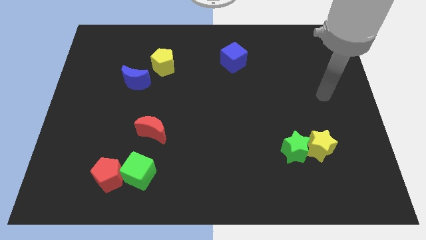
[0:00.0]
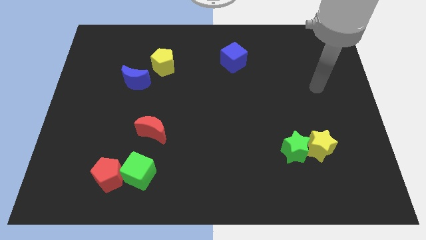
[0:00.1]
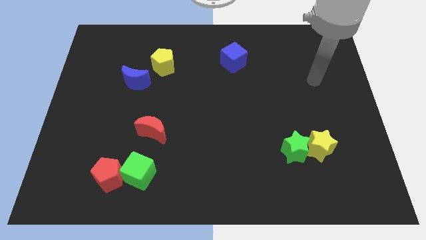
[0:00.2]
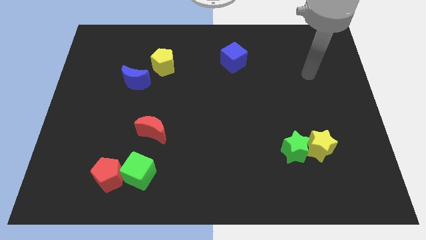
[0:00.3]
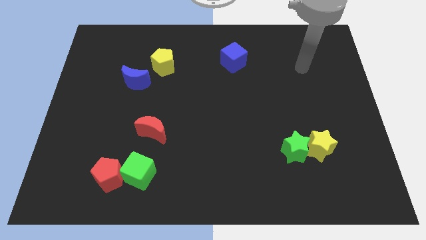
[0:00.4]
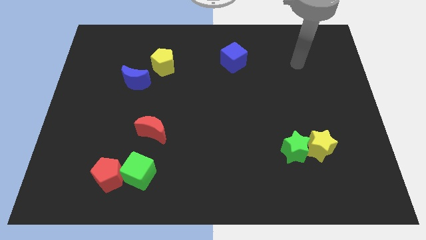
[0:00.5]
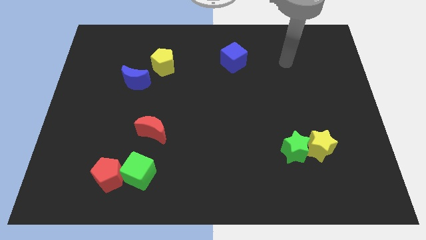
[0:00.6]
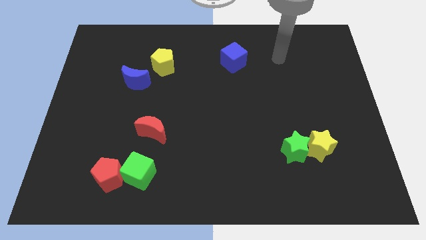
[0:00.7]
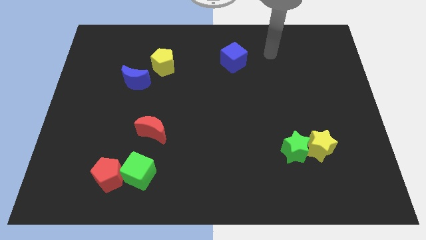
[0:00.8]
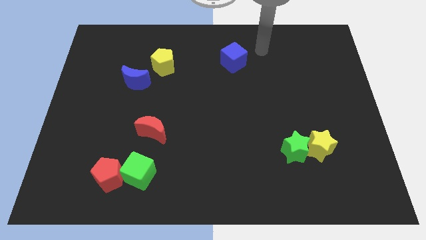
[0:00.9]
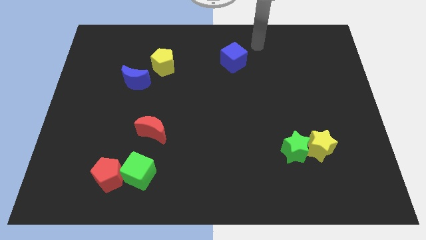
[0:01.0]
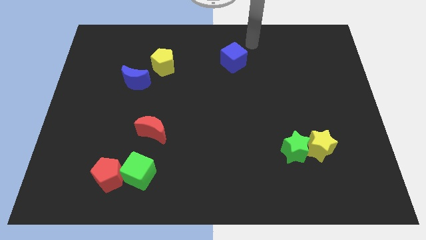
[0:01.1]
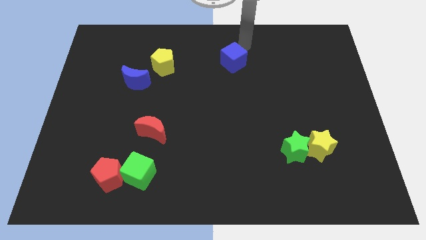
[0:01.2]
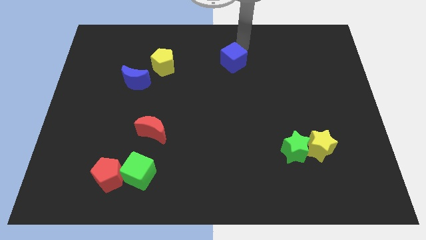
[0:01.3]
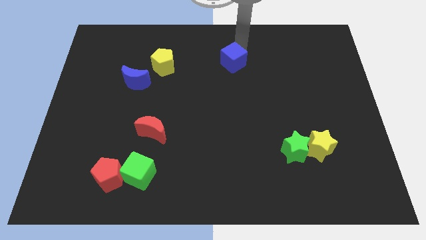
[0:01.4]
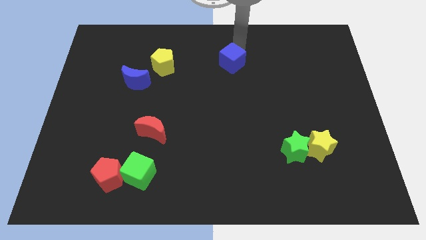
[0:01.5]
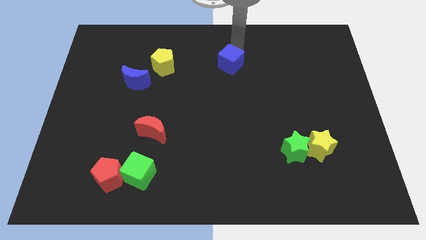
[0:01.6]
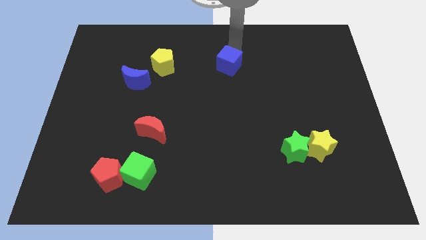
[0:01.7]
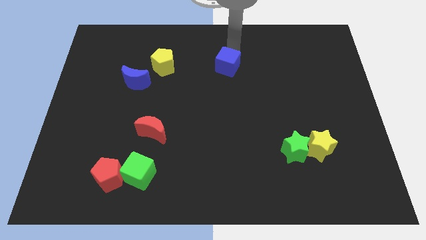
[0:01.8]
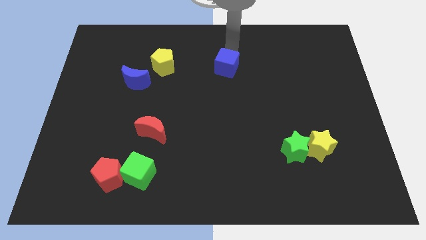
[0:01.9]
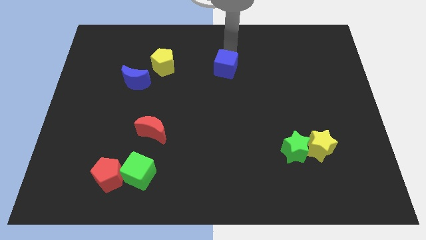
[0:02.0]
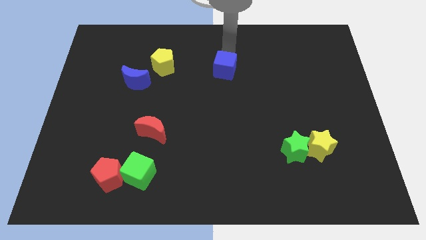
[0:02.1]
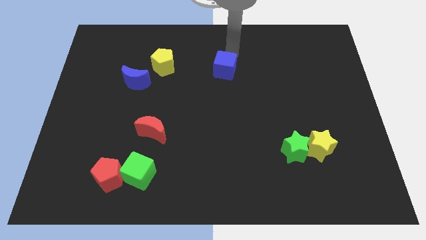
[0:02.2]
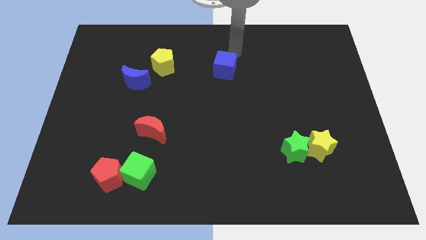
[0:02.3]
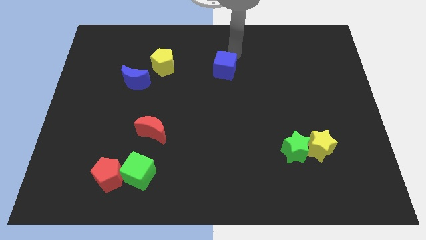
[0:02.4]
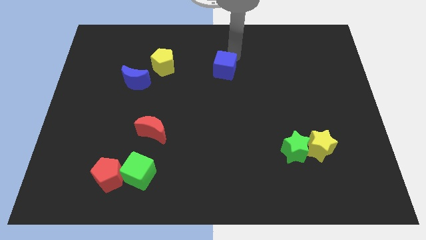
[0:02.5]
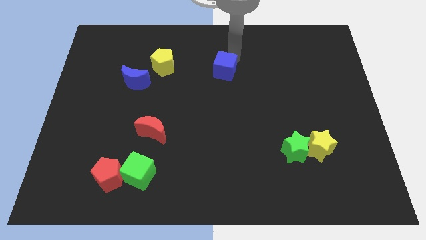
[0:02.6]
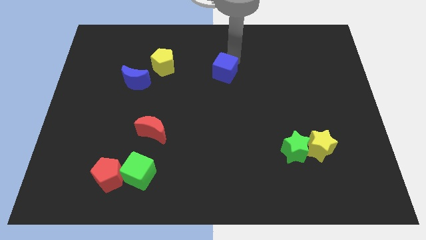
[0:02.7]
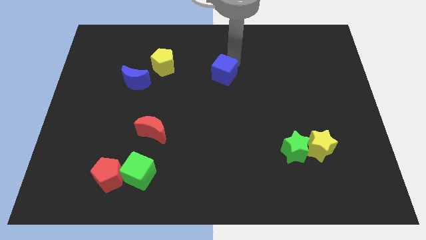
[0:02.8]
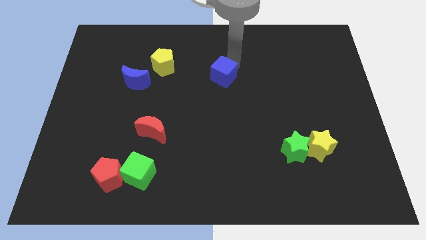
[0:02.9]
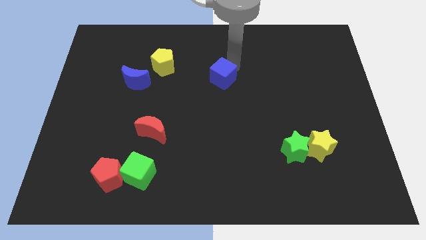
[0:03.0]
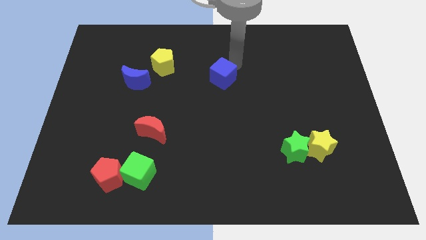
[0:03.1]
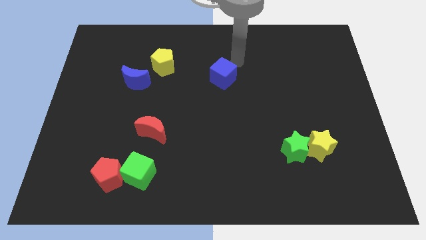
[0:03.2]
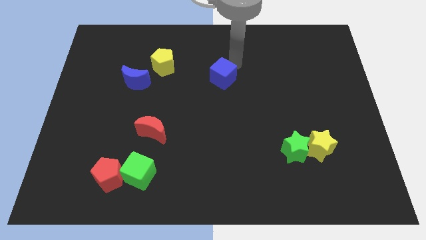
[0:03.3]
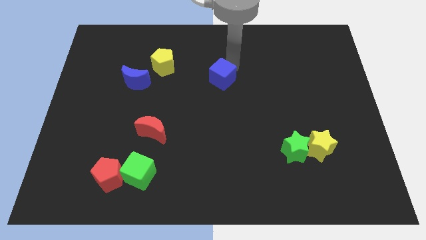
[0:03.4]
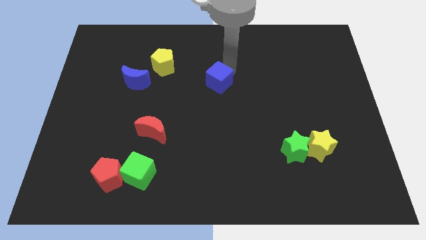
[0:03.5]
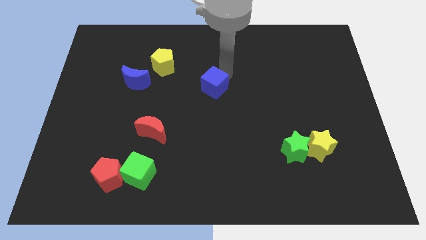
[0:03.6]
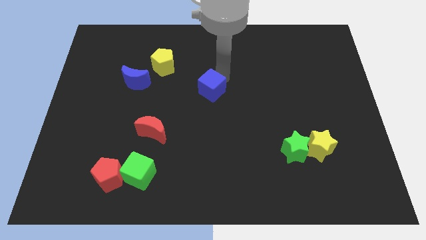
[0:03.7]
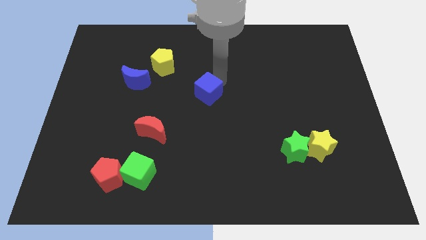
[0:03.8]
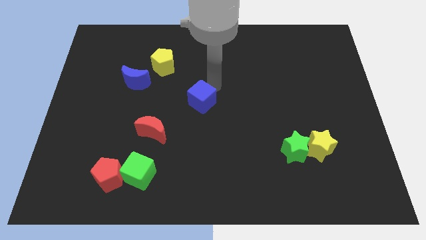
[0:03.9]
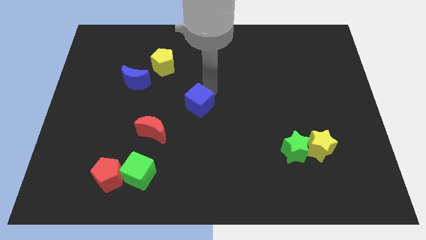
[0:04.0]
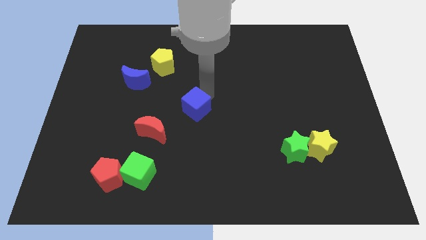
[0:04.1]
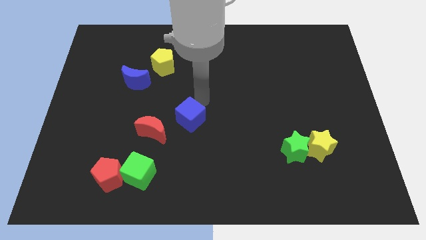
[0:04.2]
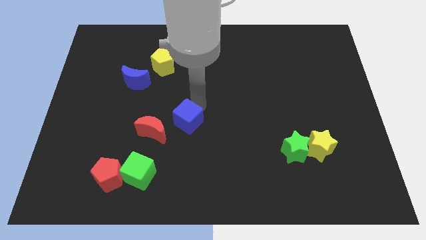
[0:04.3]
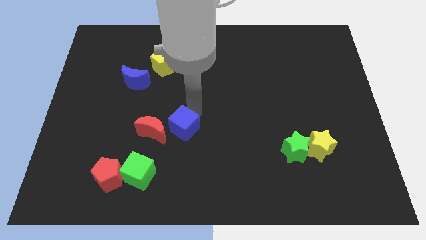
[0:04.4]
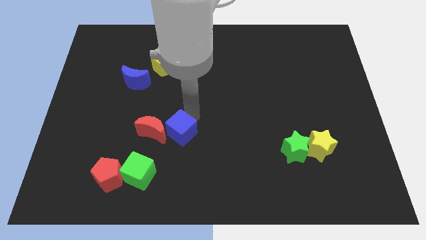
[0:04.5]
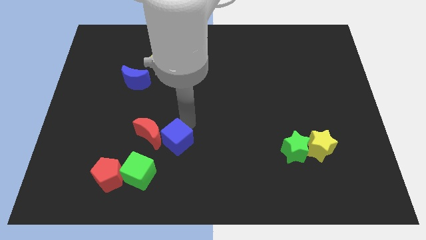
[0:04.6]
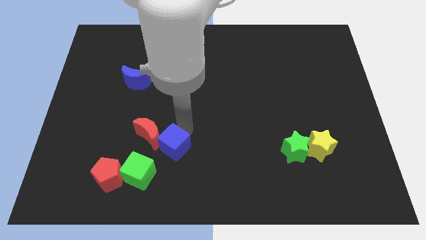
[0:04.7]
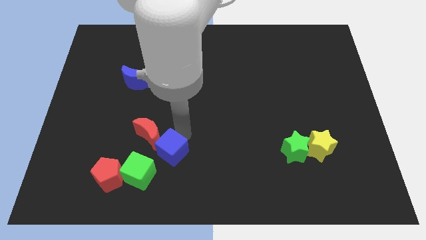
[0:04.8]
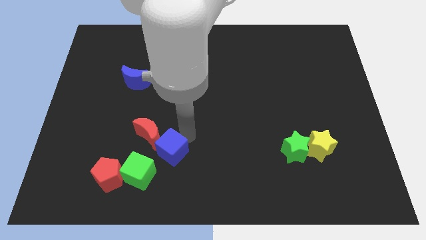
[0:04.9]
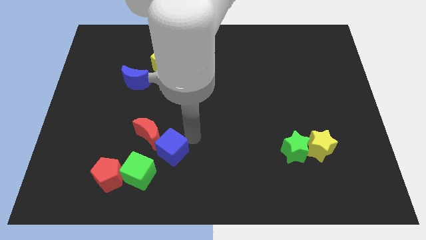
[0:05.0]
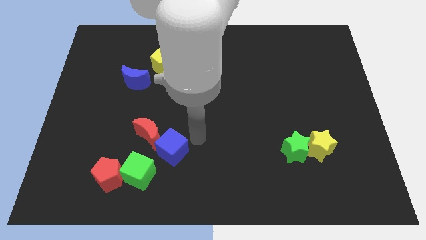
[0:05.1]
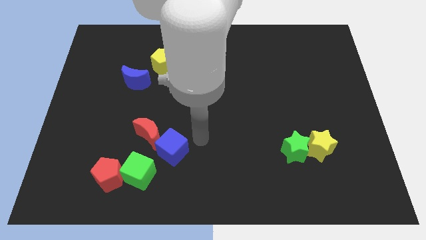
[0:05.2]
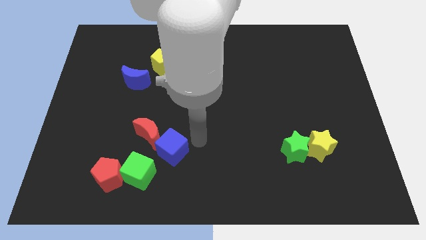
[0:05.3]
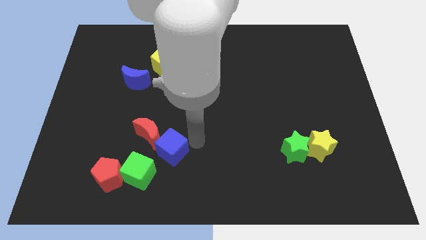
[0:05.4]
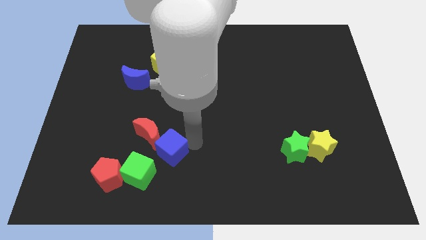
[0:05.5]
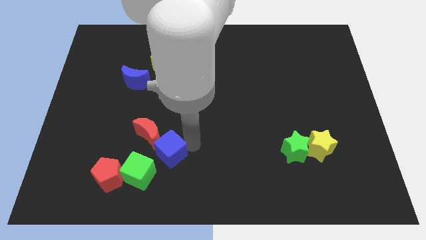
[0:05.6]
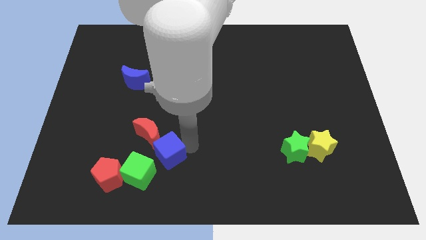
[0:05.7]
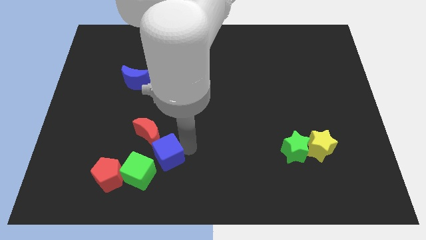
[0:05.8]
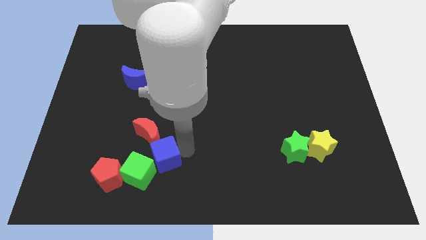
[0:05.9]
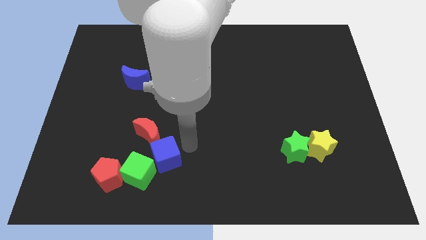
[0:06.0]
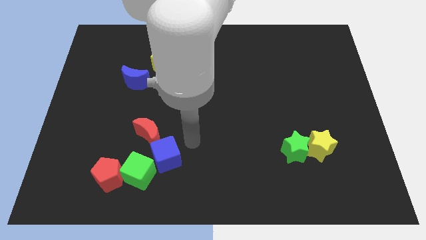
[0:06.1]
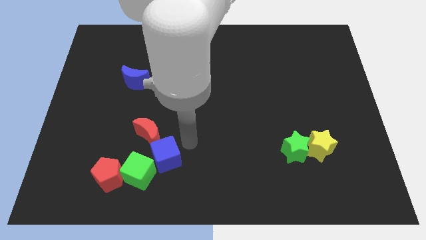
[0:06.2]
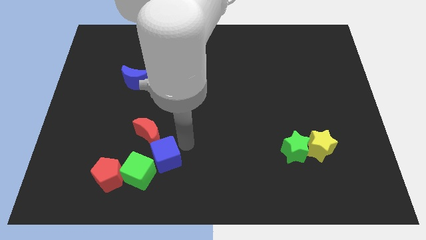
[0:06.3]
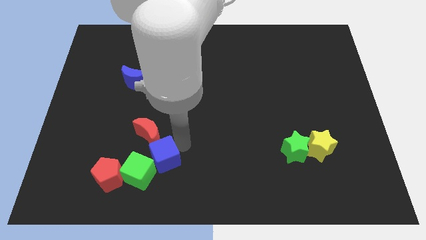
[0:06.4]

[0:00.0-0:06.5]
push the blue cube to the green cube

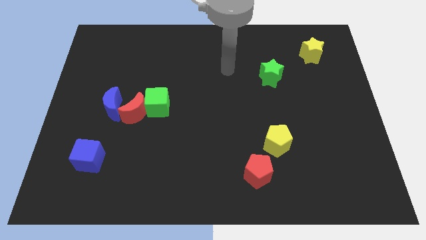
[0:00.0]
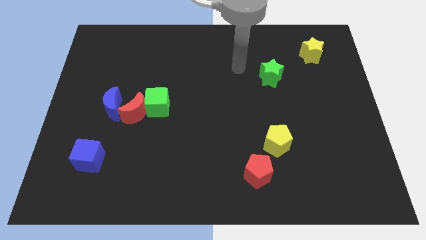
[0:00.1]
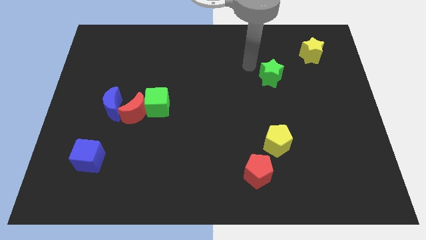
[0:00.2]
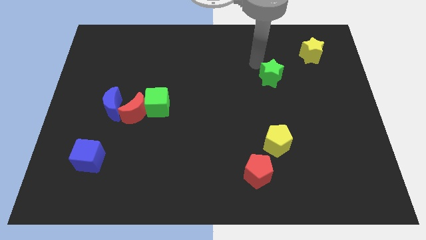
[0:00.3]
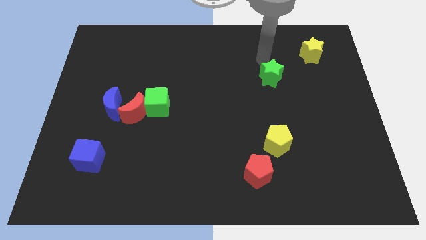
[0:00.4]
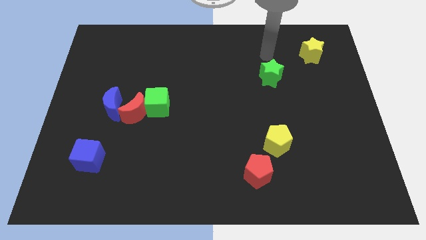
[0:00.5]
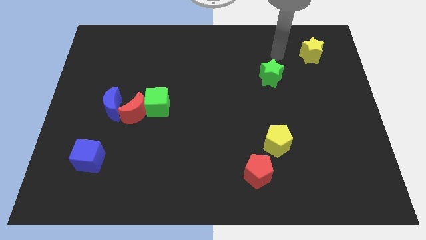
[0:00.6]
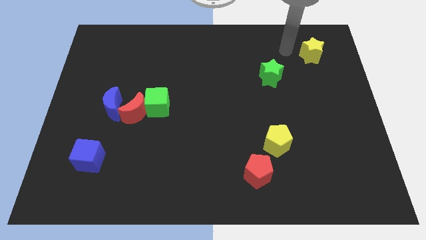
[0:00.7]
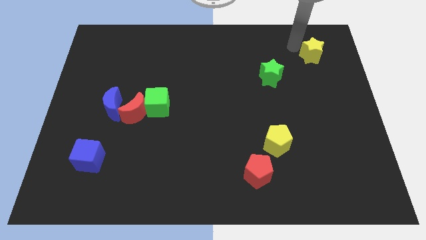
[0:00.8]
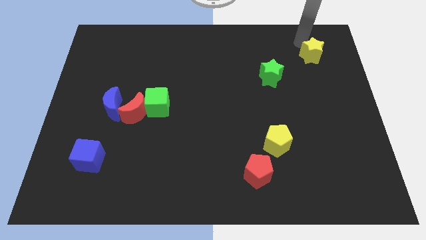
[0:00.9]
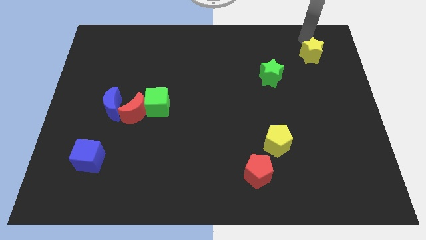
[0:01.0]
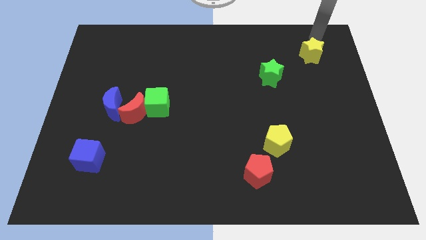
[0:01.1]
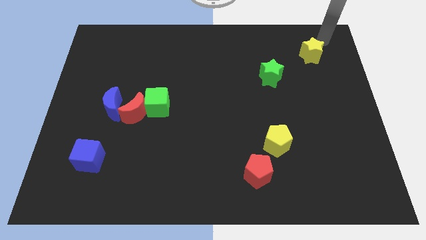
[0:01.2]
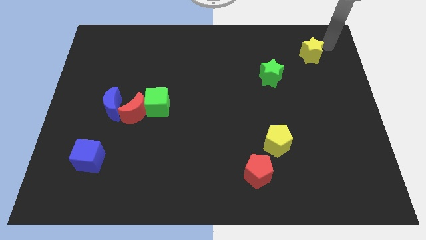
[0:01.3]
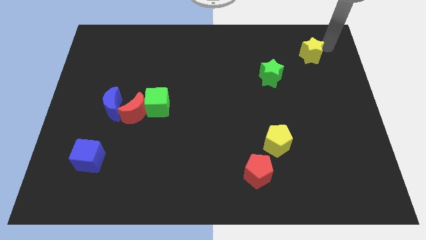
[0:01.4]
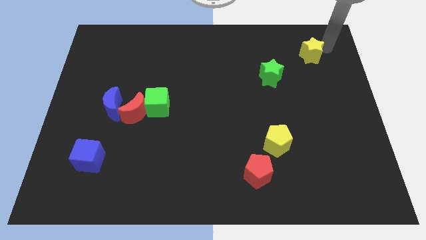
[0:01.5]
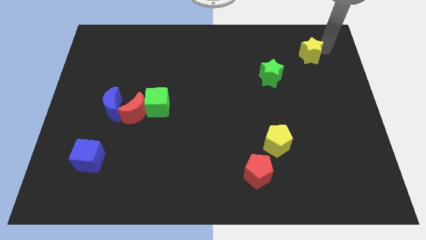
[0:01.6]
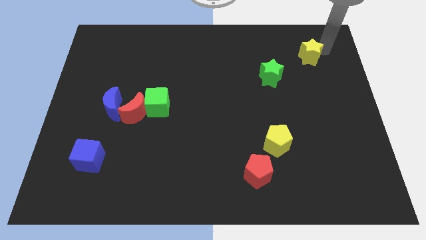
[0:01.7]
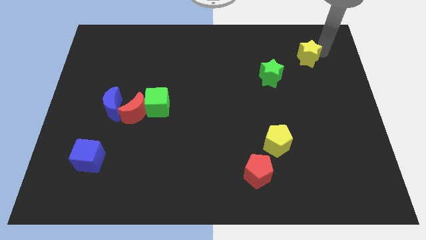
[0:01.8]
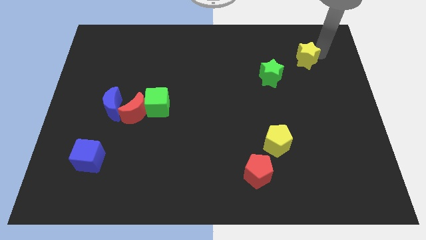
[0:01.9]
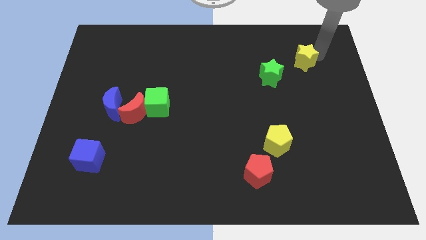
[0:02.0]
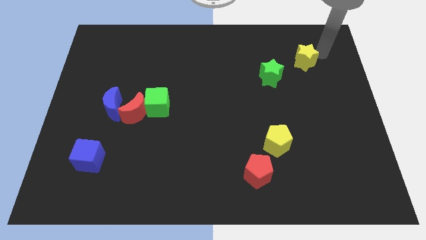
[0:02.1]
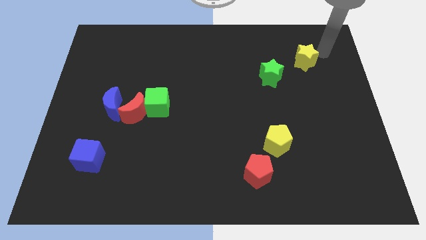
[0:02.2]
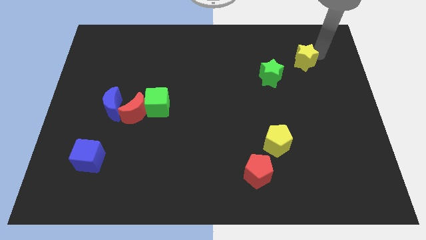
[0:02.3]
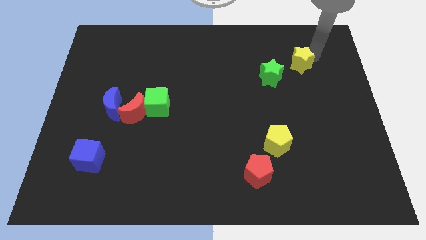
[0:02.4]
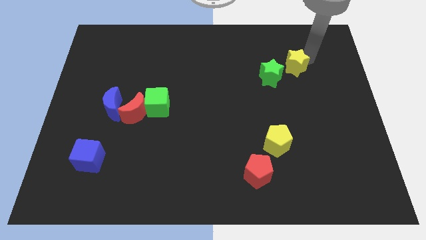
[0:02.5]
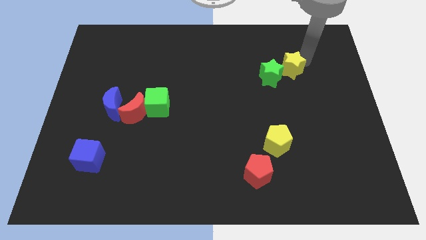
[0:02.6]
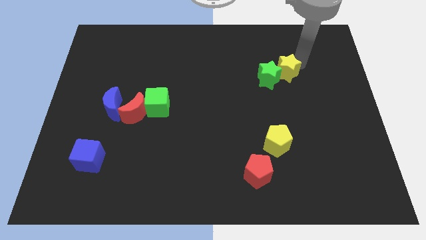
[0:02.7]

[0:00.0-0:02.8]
move the yellow star next to the green star
